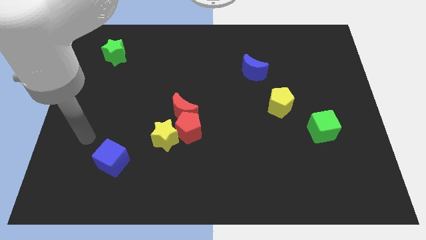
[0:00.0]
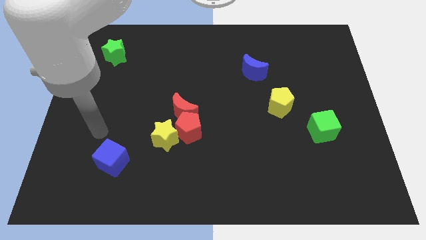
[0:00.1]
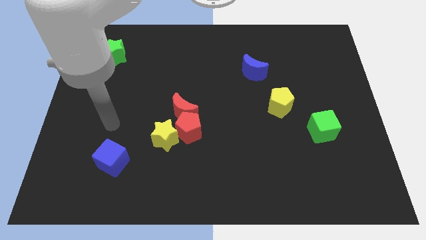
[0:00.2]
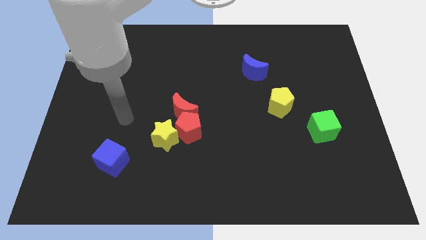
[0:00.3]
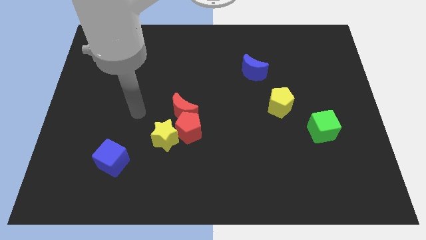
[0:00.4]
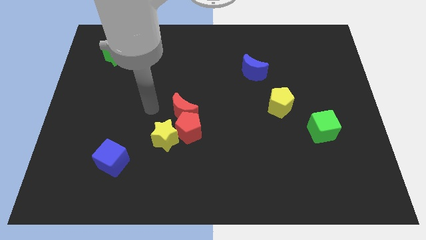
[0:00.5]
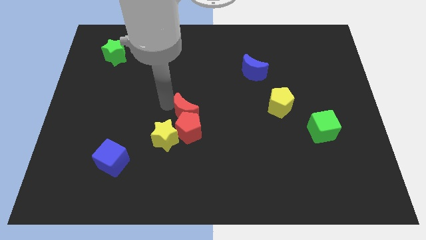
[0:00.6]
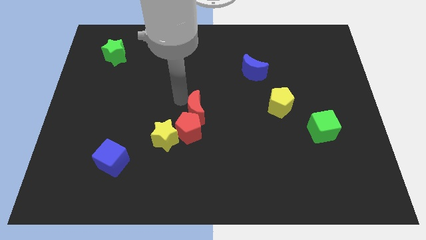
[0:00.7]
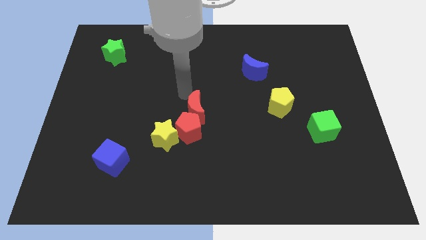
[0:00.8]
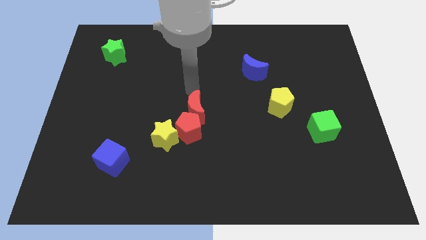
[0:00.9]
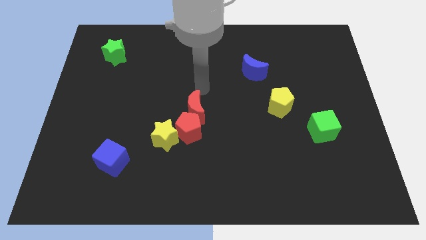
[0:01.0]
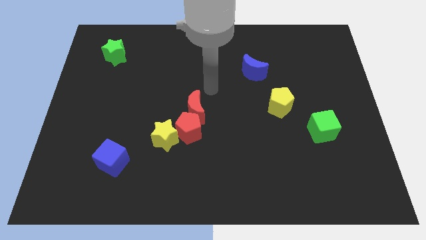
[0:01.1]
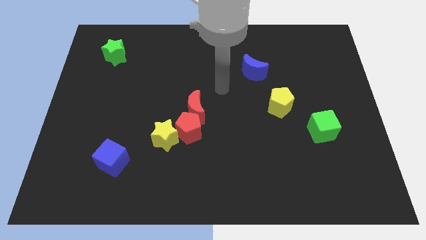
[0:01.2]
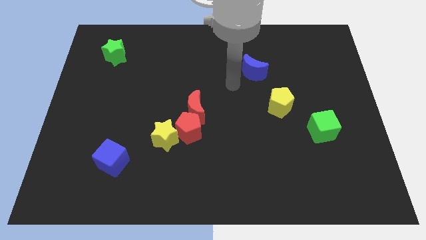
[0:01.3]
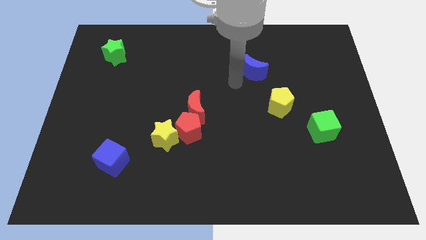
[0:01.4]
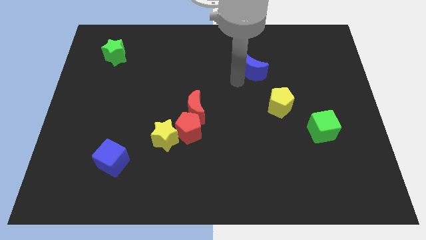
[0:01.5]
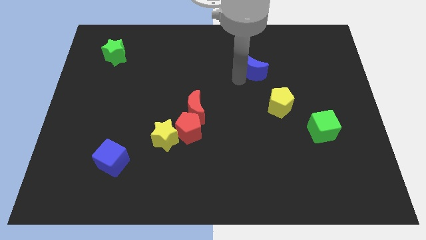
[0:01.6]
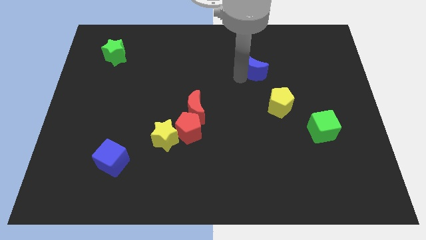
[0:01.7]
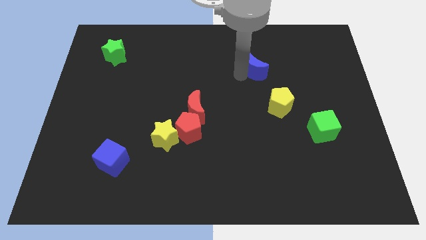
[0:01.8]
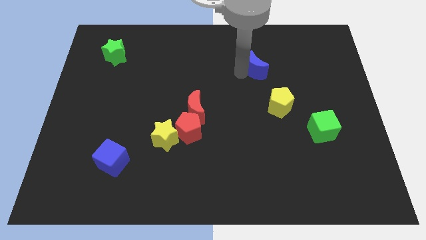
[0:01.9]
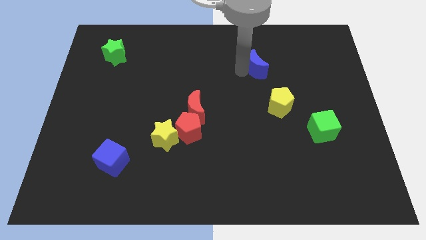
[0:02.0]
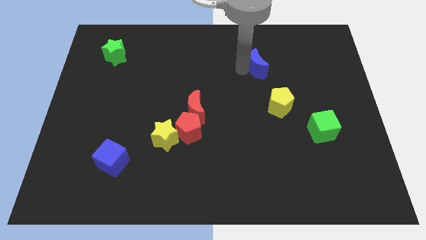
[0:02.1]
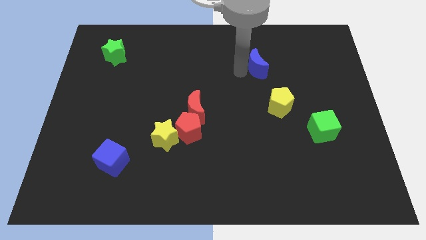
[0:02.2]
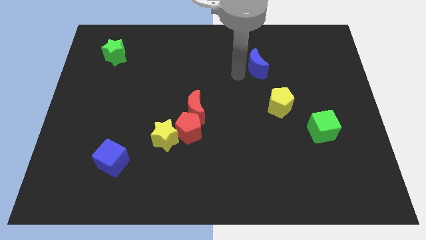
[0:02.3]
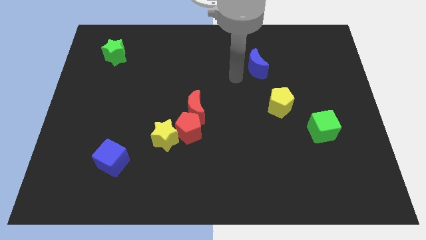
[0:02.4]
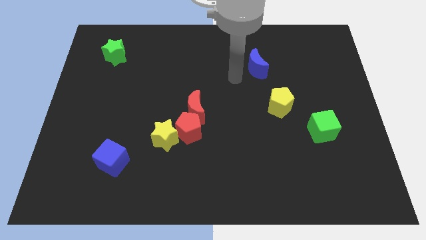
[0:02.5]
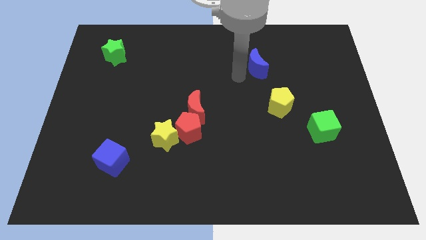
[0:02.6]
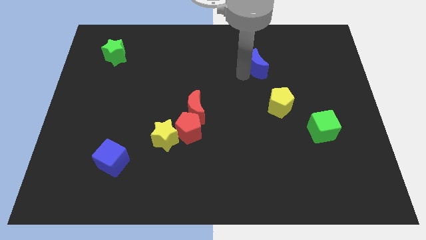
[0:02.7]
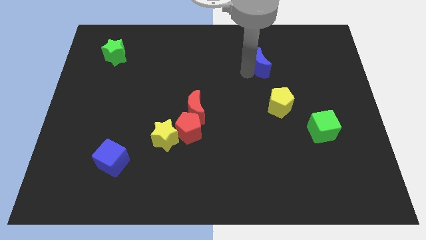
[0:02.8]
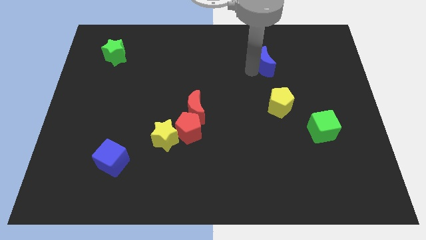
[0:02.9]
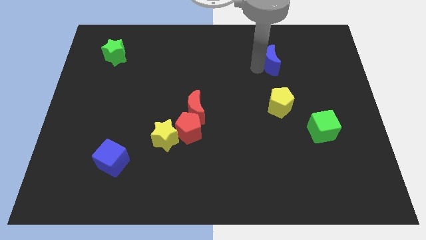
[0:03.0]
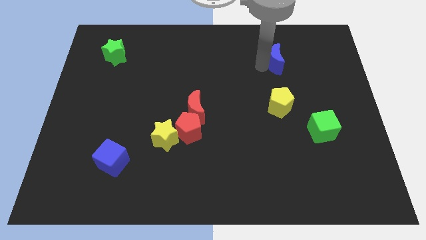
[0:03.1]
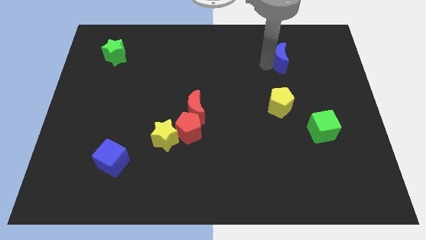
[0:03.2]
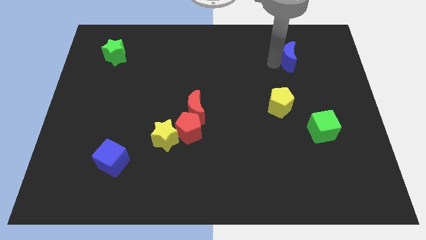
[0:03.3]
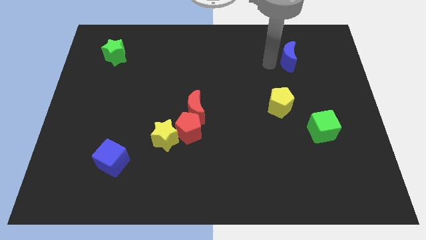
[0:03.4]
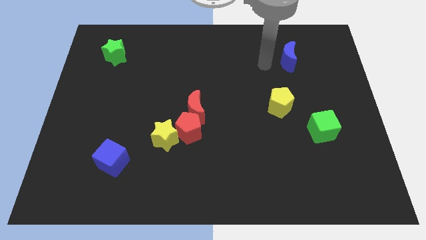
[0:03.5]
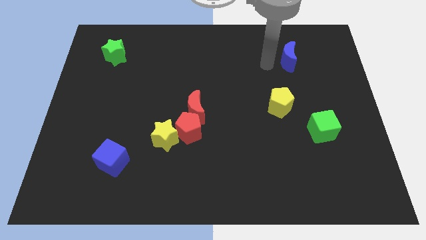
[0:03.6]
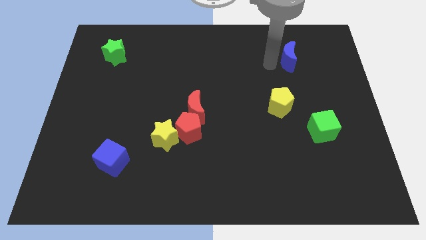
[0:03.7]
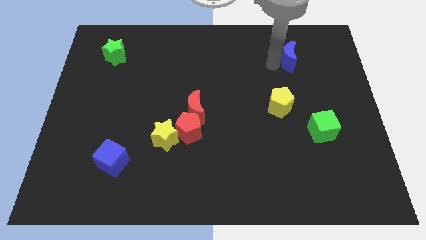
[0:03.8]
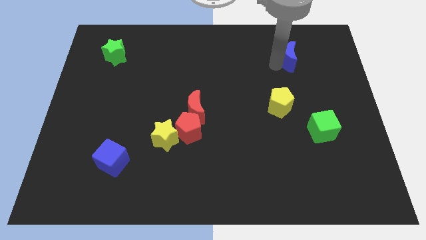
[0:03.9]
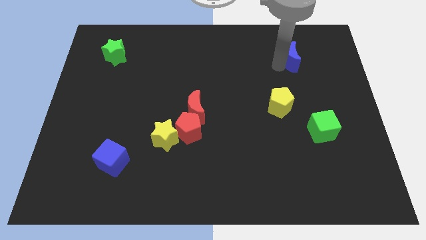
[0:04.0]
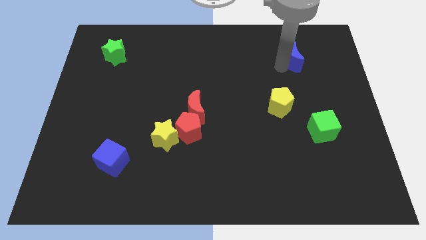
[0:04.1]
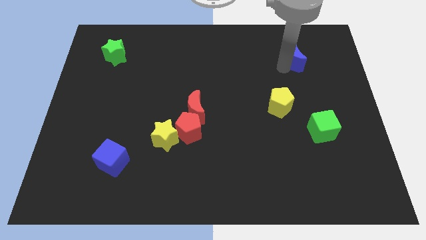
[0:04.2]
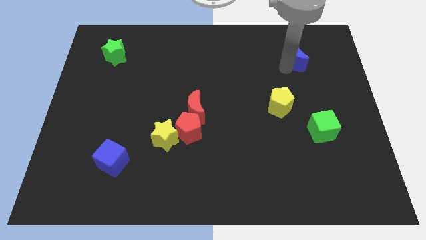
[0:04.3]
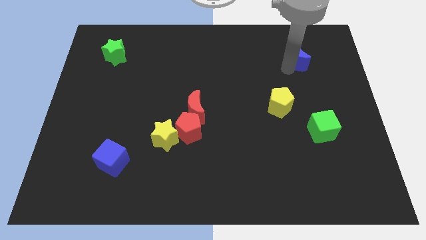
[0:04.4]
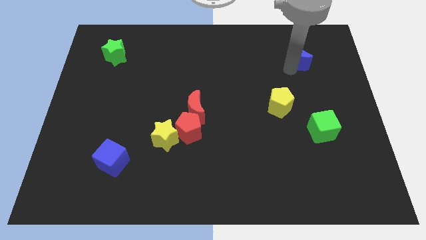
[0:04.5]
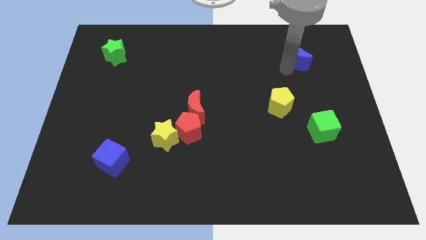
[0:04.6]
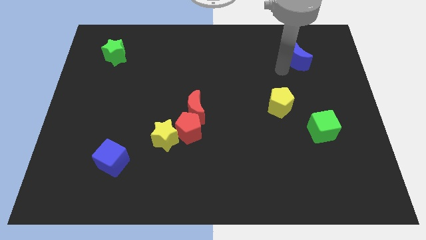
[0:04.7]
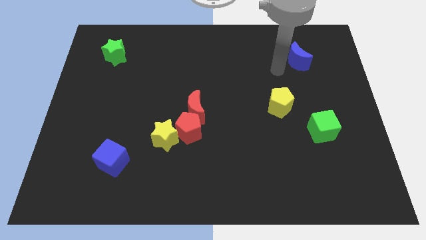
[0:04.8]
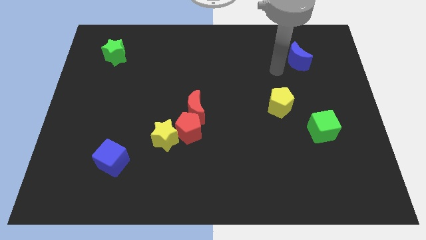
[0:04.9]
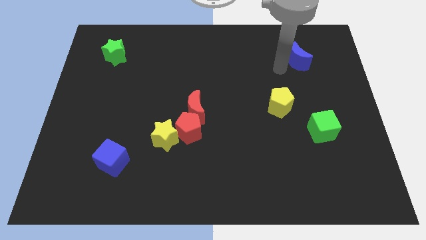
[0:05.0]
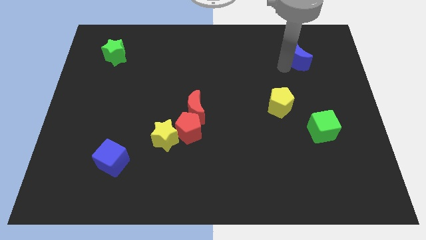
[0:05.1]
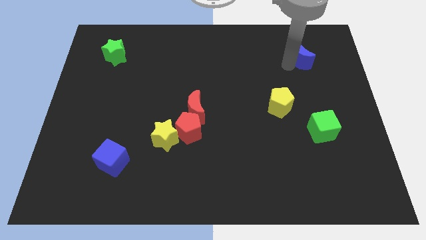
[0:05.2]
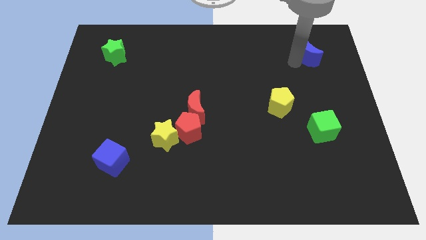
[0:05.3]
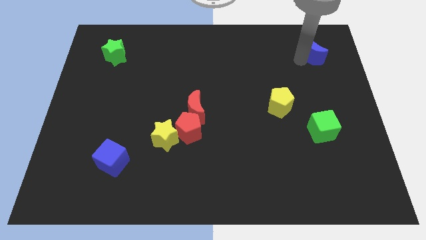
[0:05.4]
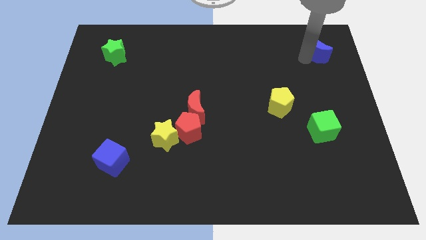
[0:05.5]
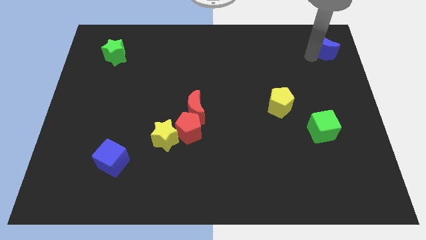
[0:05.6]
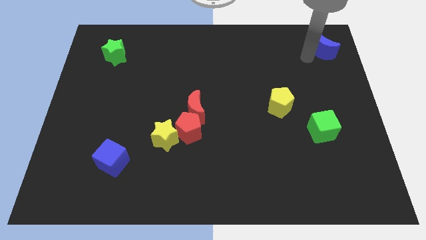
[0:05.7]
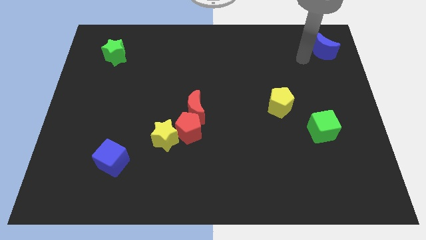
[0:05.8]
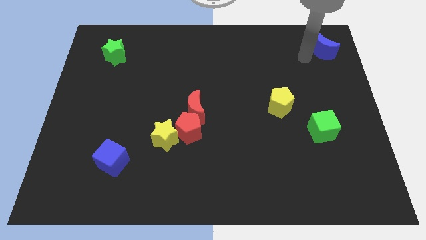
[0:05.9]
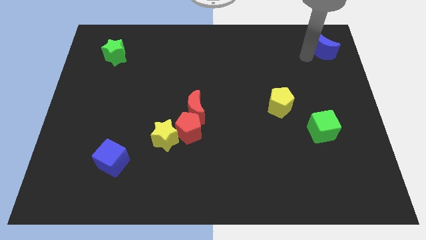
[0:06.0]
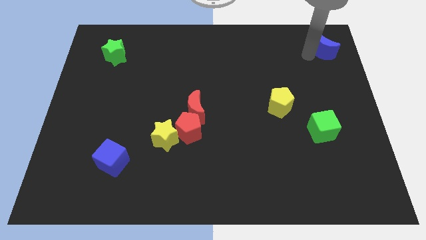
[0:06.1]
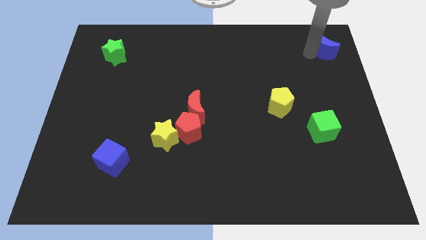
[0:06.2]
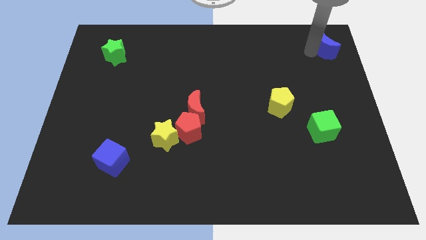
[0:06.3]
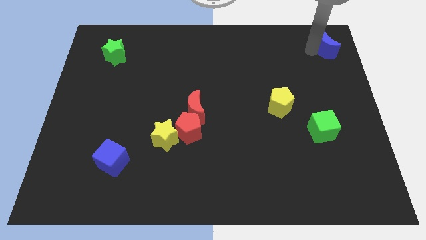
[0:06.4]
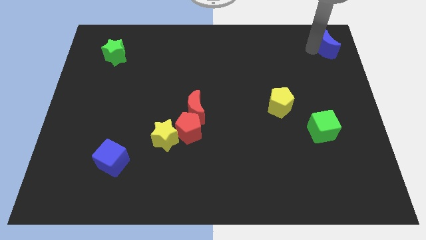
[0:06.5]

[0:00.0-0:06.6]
slide the blue moon to the upper right corner
